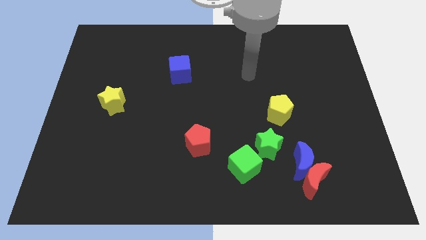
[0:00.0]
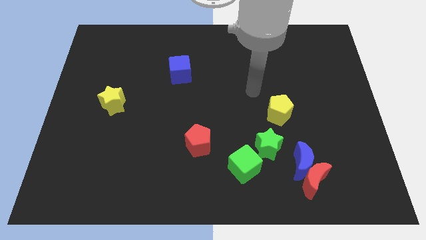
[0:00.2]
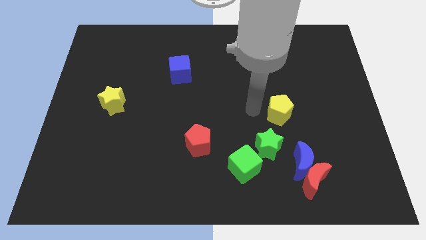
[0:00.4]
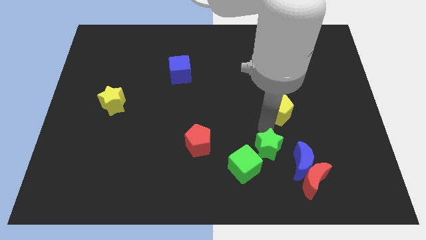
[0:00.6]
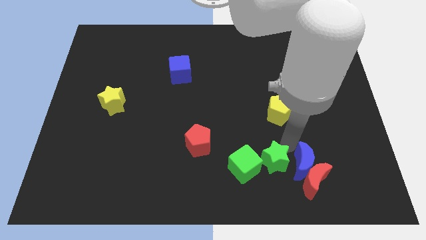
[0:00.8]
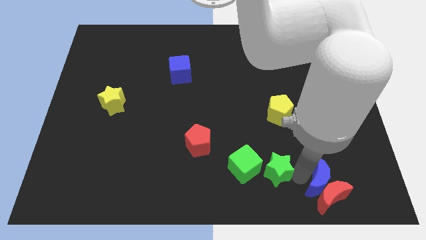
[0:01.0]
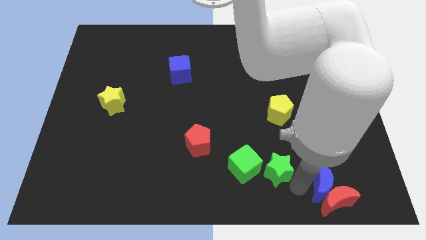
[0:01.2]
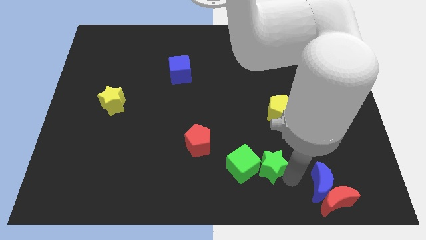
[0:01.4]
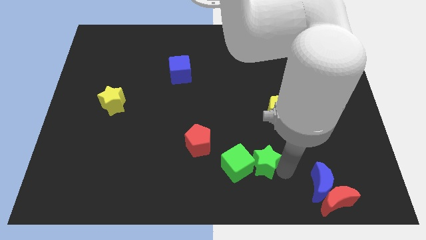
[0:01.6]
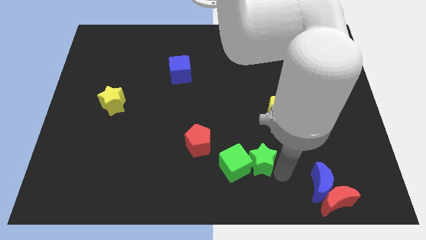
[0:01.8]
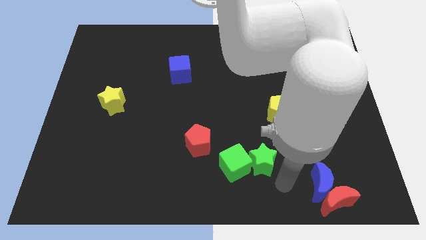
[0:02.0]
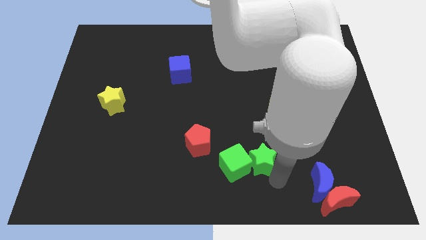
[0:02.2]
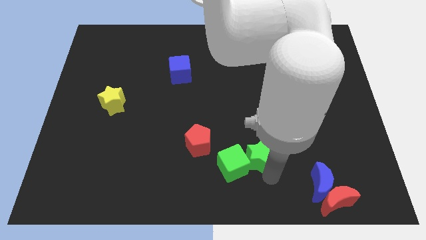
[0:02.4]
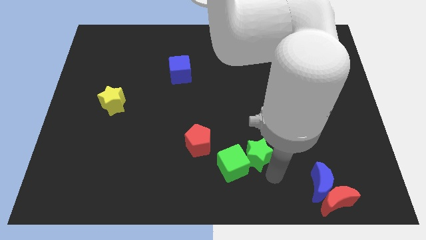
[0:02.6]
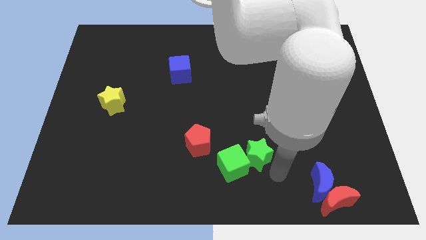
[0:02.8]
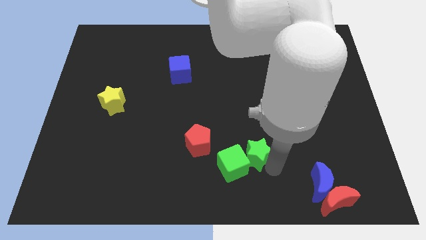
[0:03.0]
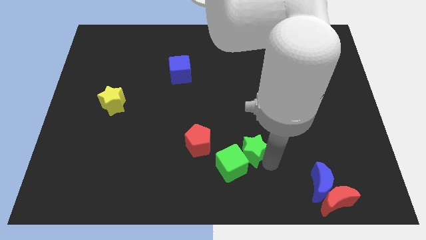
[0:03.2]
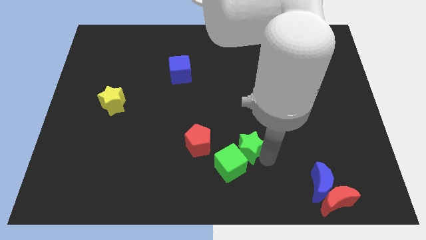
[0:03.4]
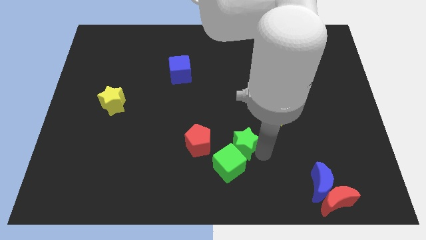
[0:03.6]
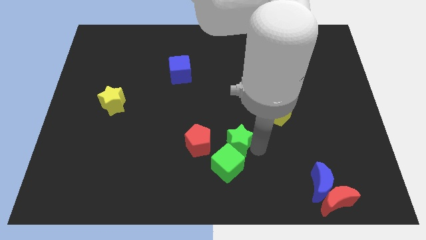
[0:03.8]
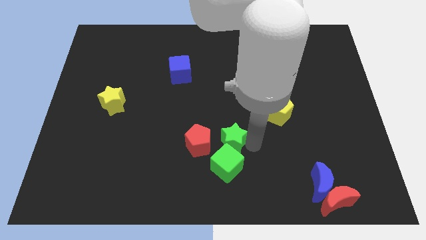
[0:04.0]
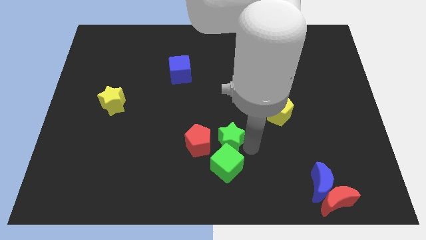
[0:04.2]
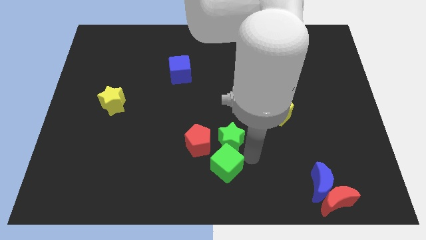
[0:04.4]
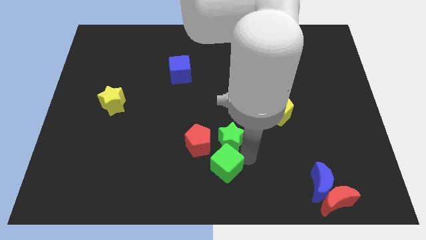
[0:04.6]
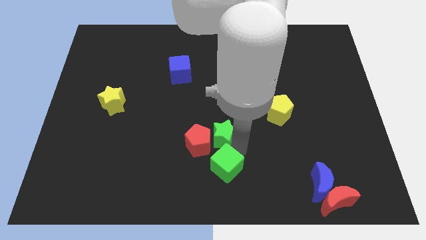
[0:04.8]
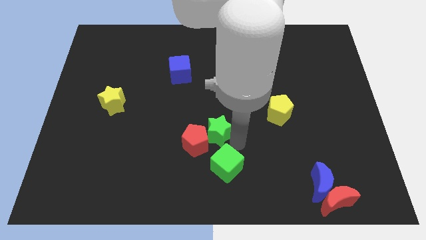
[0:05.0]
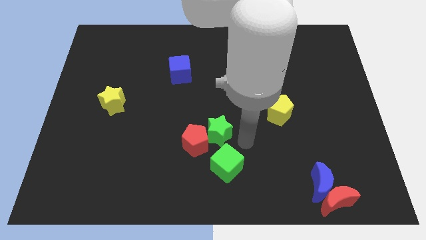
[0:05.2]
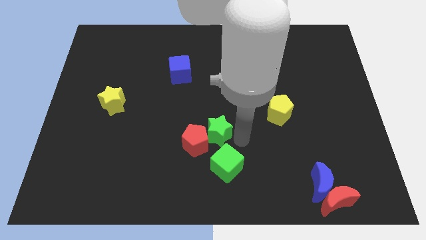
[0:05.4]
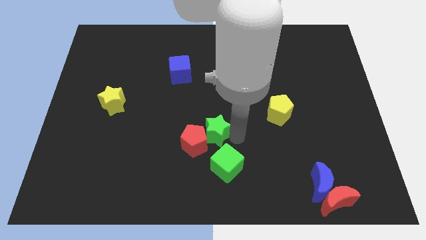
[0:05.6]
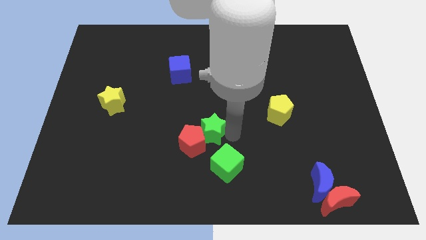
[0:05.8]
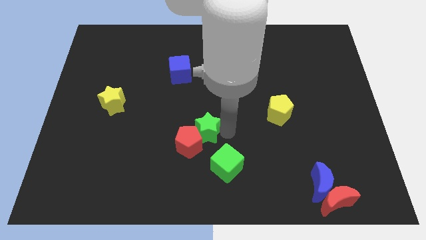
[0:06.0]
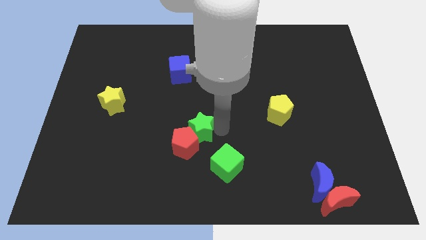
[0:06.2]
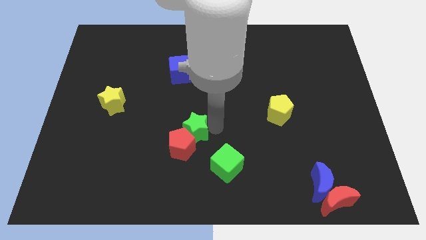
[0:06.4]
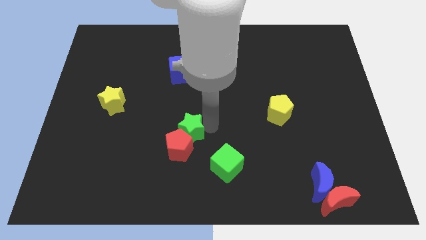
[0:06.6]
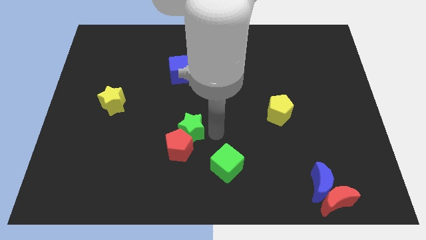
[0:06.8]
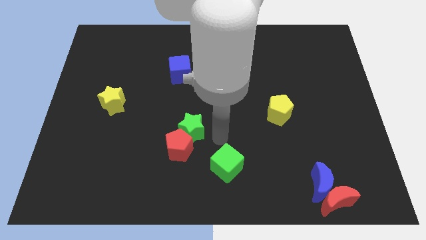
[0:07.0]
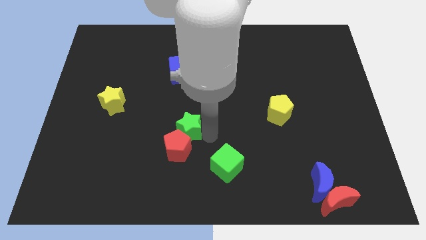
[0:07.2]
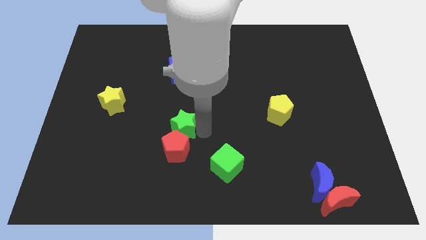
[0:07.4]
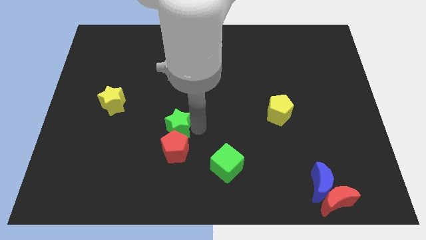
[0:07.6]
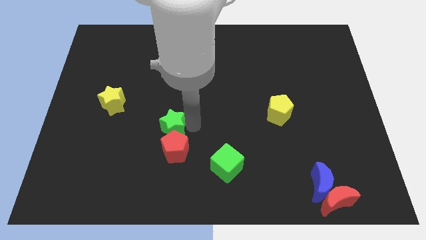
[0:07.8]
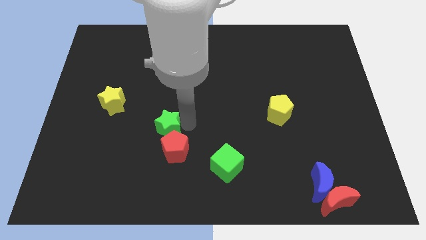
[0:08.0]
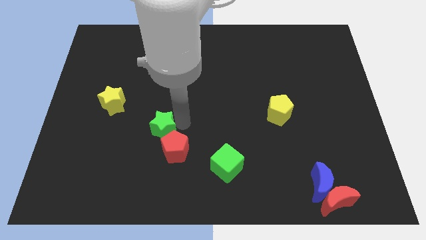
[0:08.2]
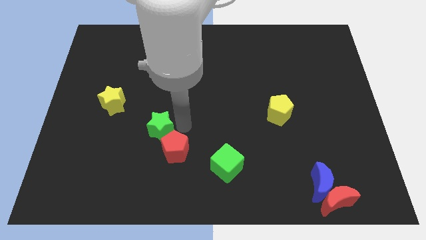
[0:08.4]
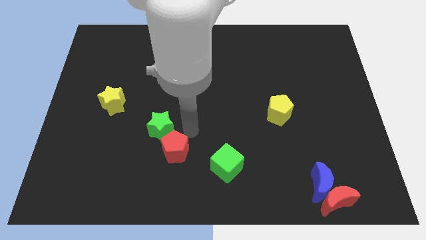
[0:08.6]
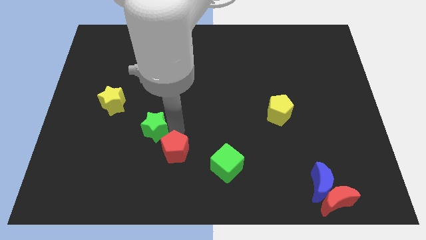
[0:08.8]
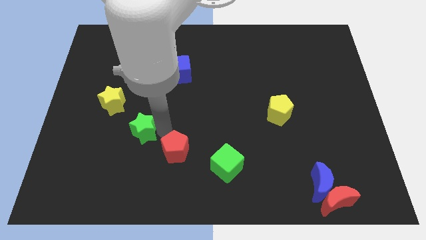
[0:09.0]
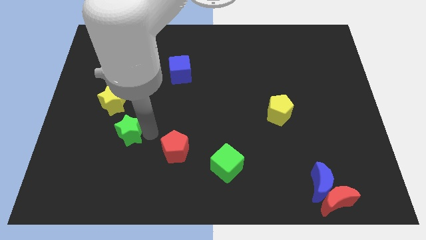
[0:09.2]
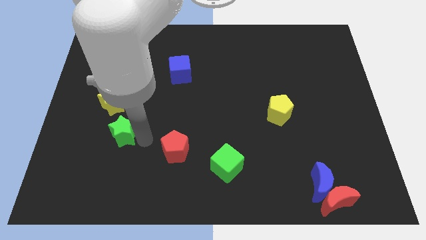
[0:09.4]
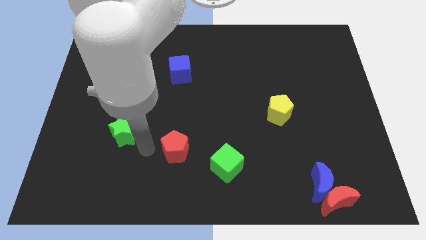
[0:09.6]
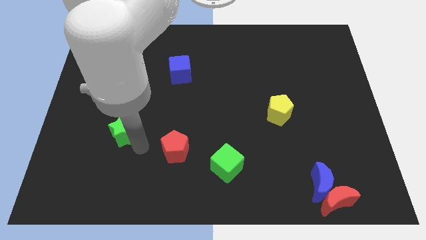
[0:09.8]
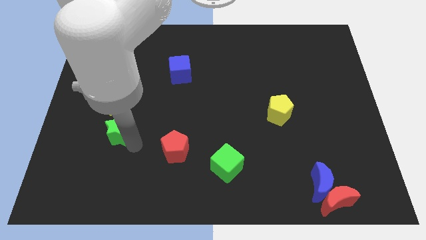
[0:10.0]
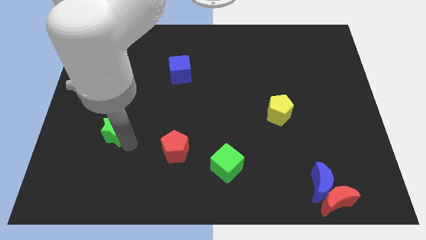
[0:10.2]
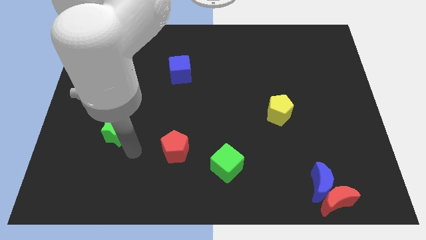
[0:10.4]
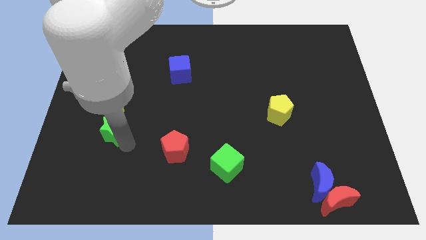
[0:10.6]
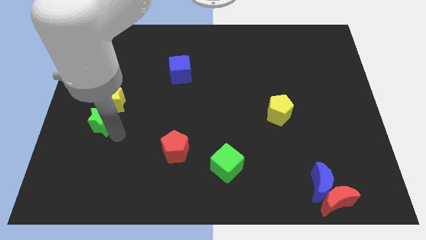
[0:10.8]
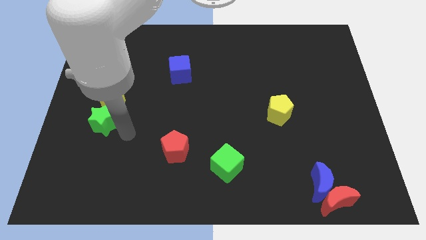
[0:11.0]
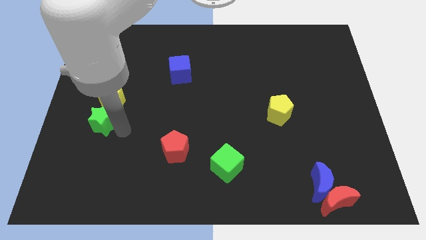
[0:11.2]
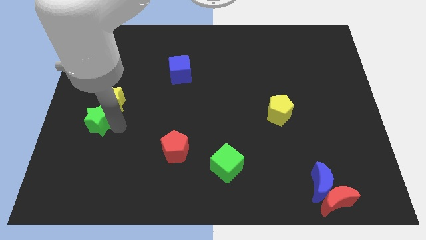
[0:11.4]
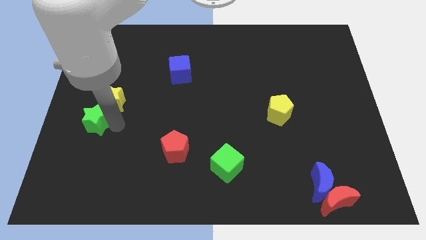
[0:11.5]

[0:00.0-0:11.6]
move the green star to the center left

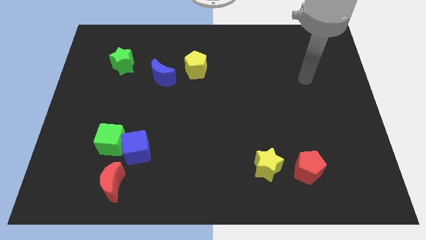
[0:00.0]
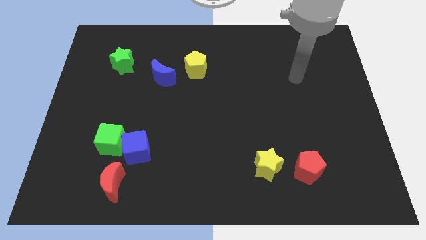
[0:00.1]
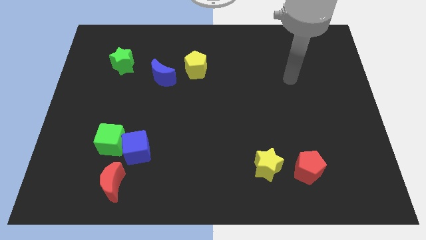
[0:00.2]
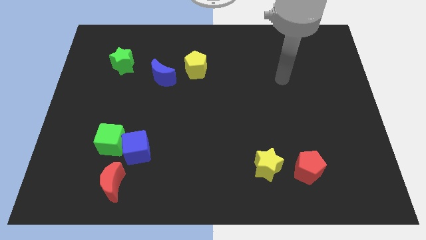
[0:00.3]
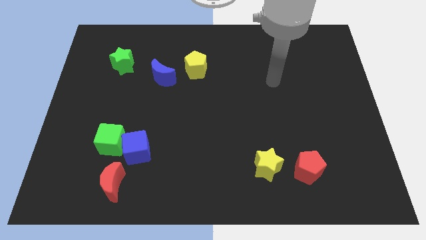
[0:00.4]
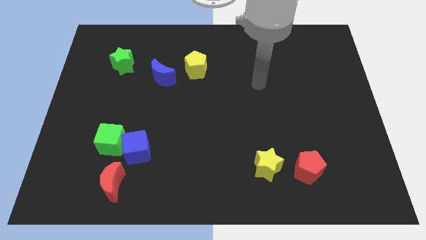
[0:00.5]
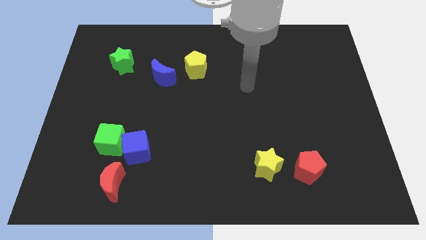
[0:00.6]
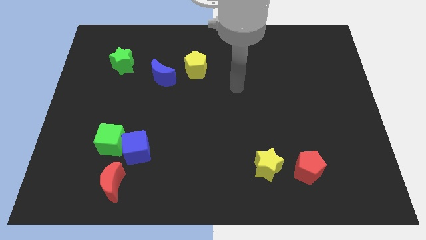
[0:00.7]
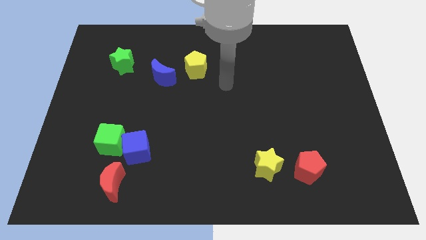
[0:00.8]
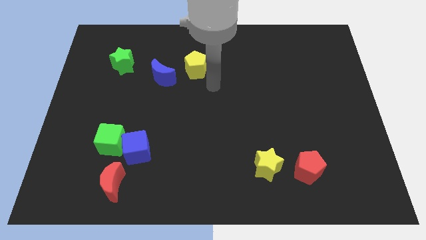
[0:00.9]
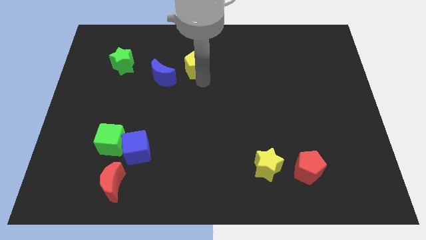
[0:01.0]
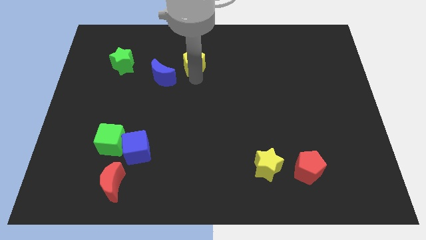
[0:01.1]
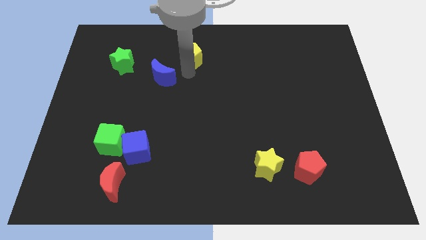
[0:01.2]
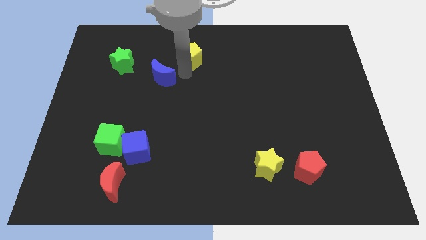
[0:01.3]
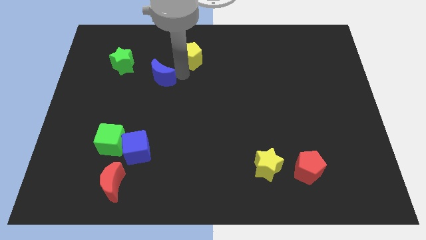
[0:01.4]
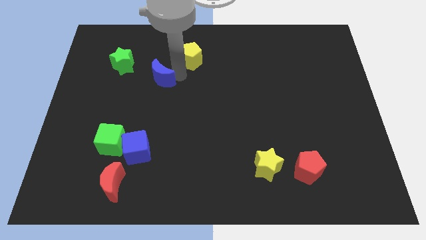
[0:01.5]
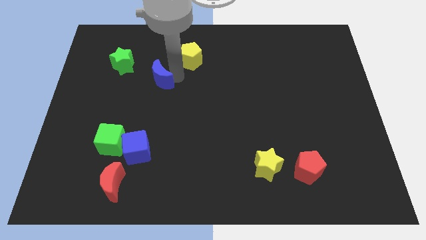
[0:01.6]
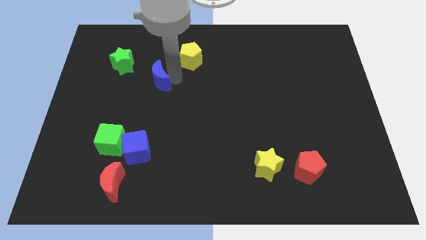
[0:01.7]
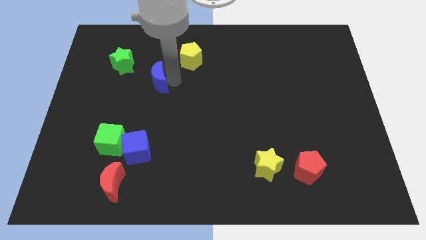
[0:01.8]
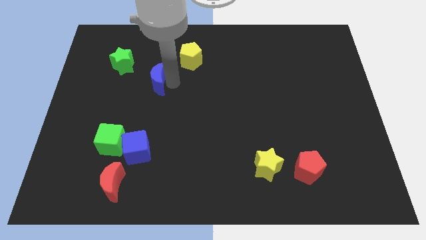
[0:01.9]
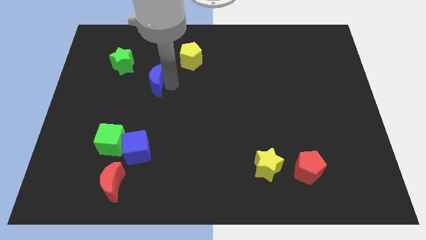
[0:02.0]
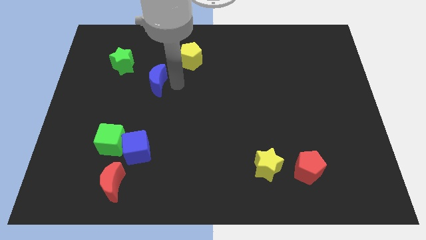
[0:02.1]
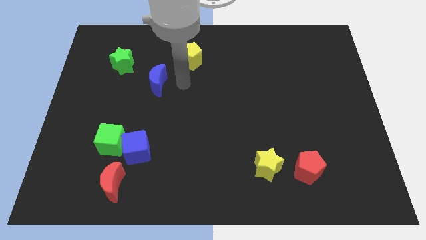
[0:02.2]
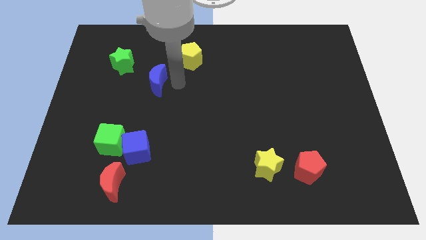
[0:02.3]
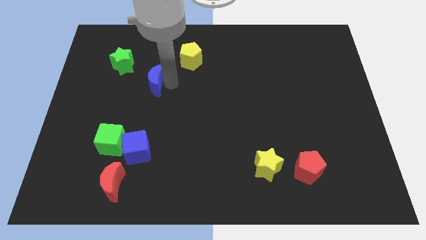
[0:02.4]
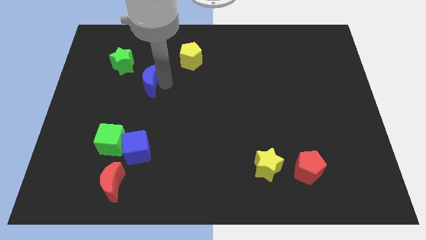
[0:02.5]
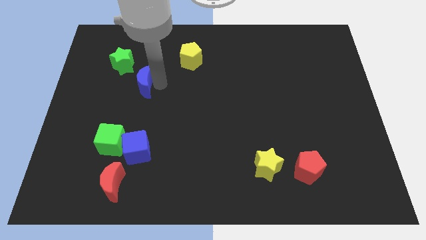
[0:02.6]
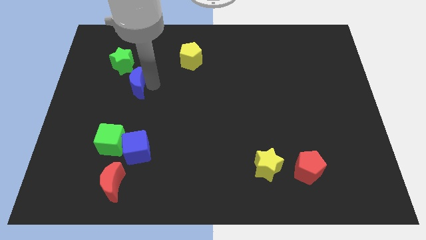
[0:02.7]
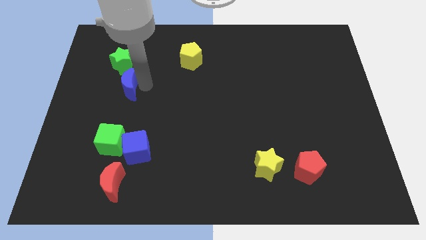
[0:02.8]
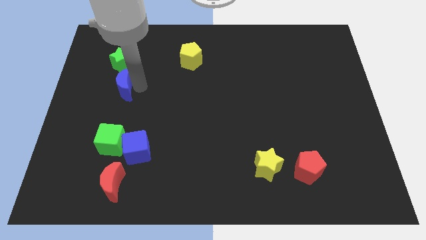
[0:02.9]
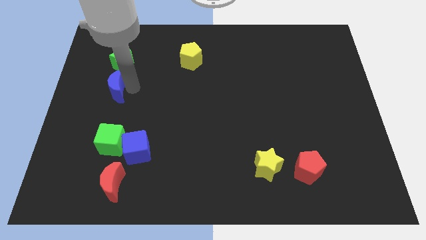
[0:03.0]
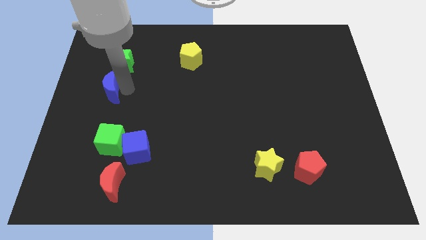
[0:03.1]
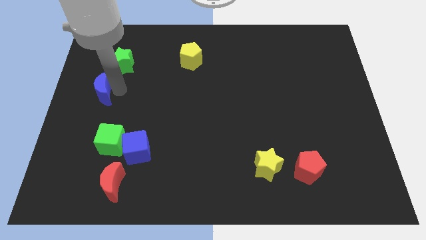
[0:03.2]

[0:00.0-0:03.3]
put the blue moon to the left side of the board
